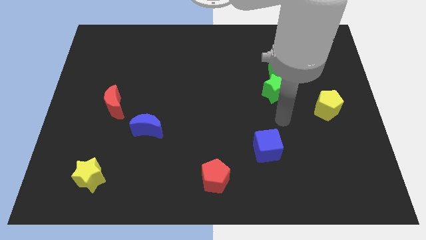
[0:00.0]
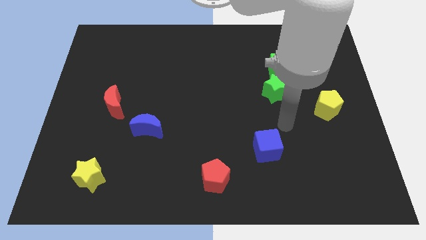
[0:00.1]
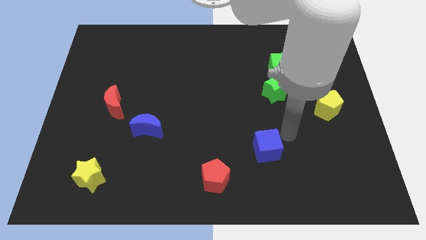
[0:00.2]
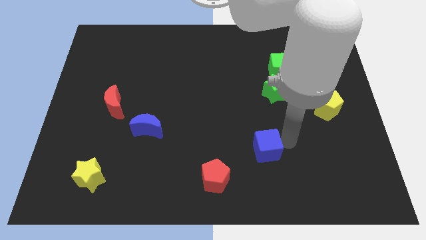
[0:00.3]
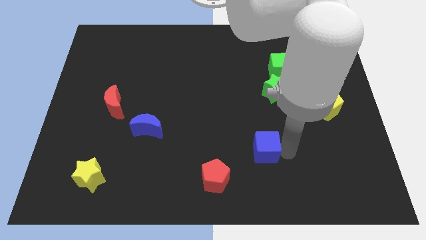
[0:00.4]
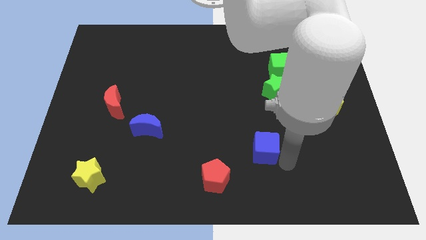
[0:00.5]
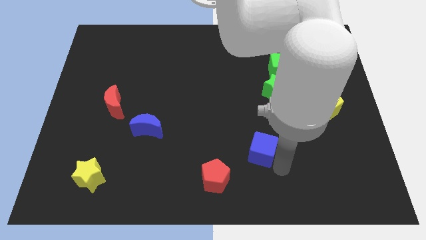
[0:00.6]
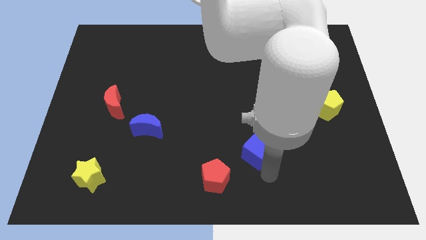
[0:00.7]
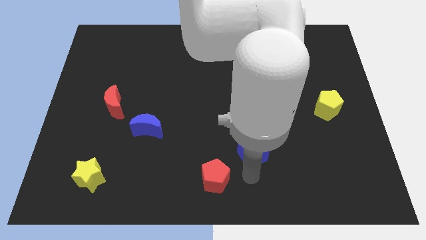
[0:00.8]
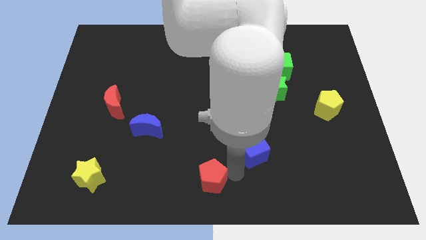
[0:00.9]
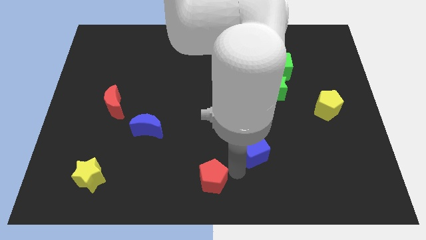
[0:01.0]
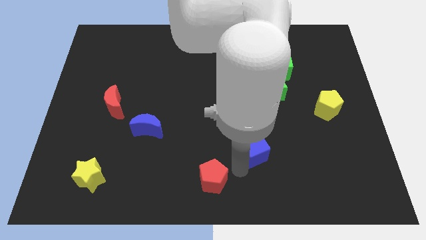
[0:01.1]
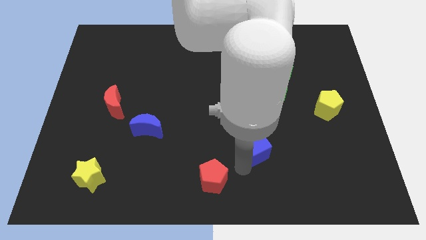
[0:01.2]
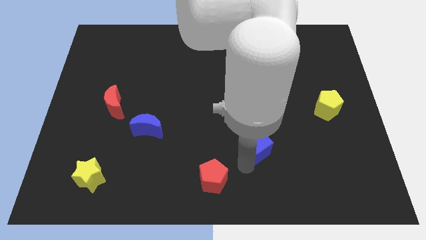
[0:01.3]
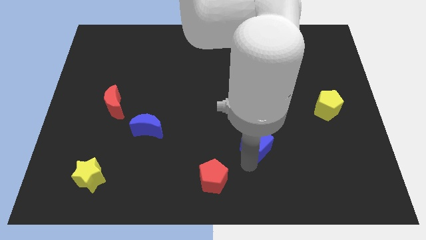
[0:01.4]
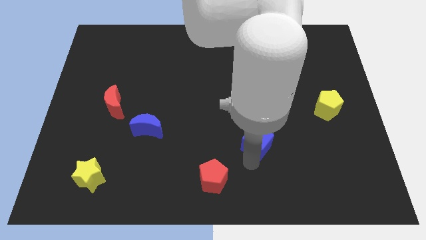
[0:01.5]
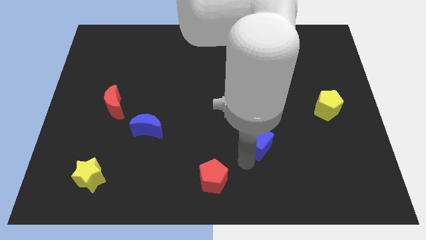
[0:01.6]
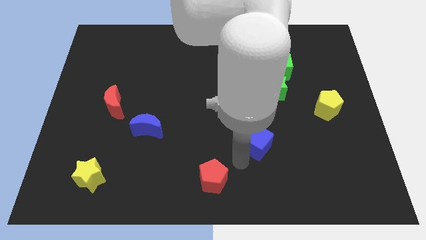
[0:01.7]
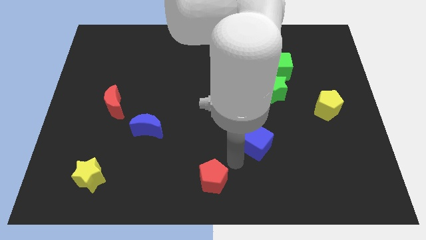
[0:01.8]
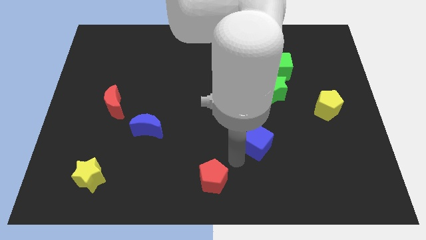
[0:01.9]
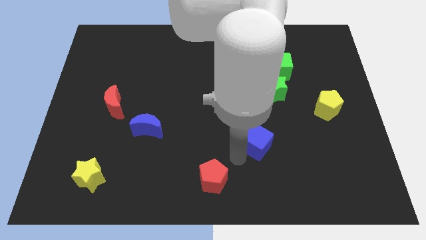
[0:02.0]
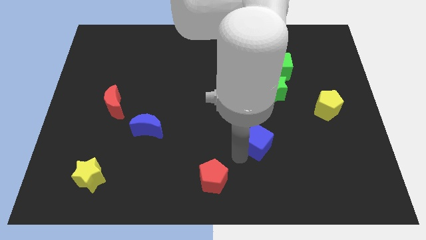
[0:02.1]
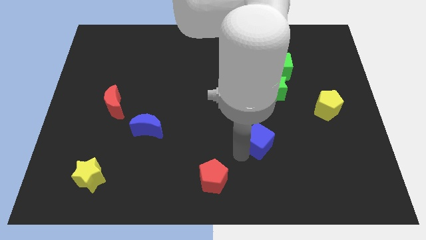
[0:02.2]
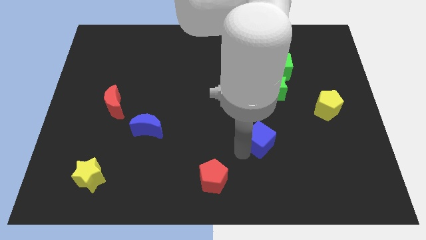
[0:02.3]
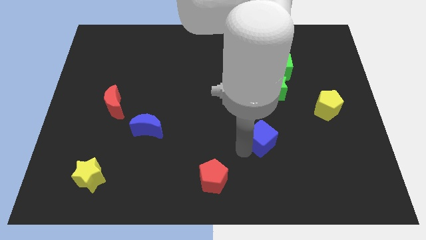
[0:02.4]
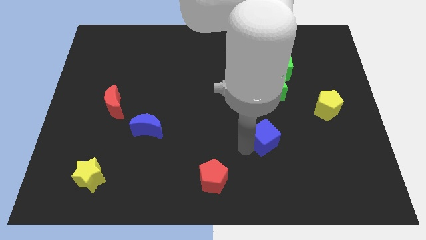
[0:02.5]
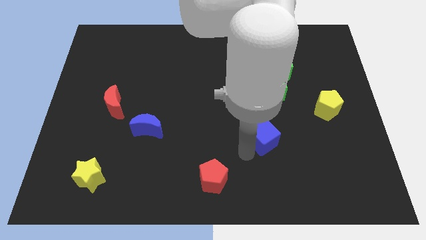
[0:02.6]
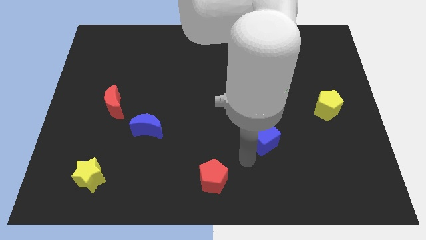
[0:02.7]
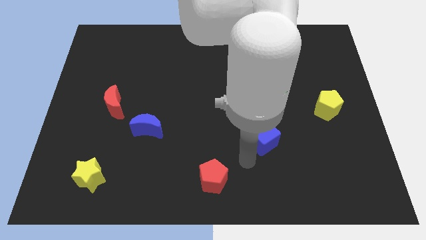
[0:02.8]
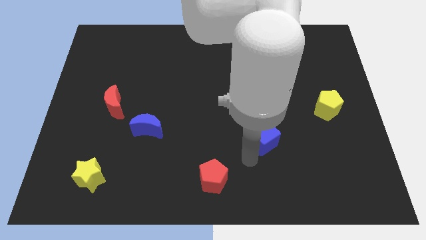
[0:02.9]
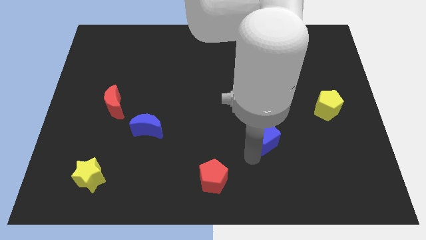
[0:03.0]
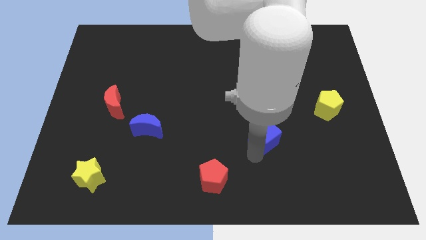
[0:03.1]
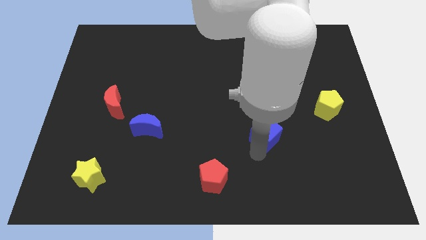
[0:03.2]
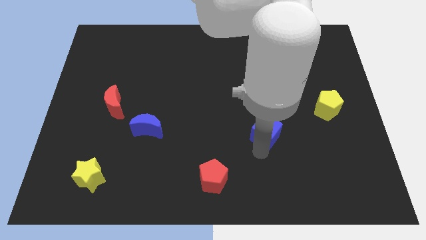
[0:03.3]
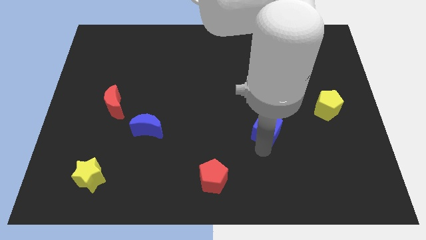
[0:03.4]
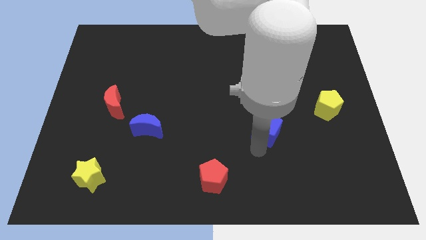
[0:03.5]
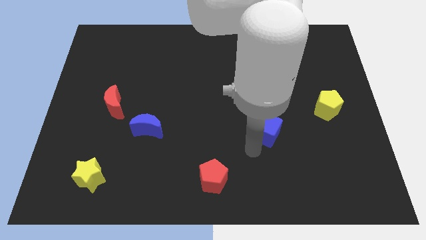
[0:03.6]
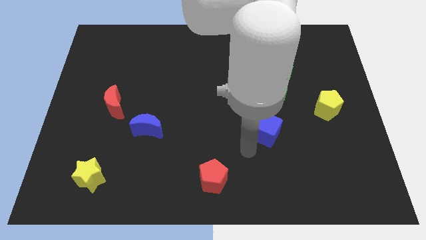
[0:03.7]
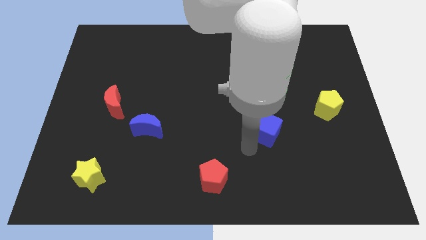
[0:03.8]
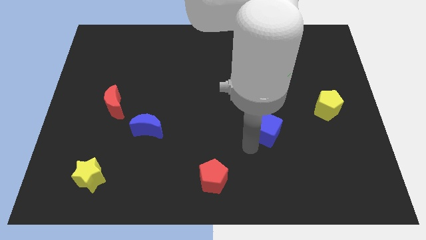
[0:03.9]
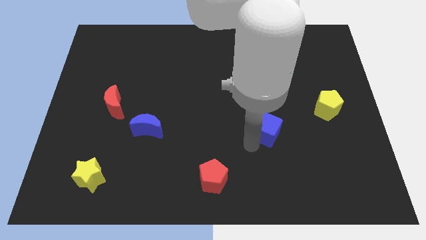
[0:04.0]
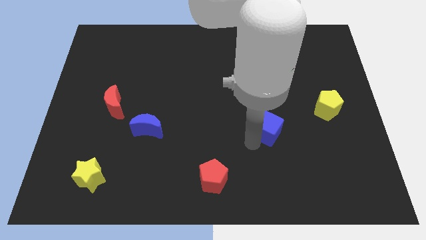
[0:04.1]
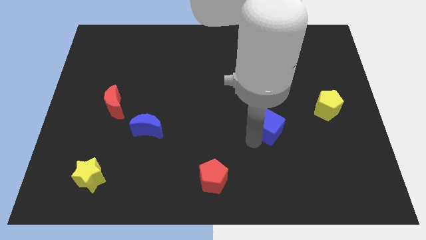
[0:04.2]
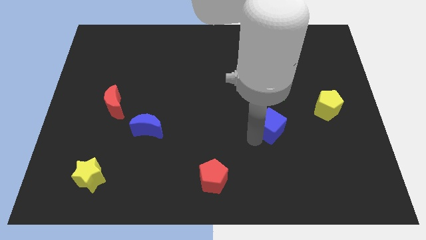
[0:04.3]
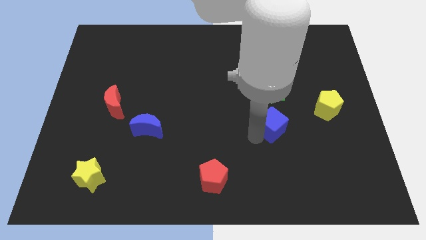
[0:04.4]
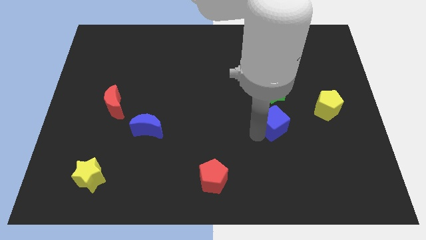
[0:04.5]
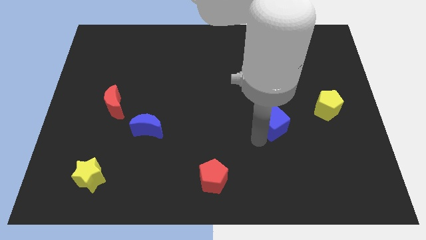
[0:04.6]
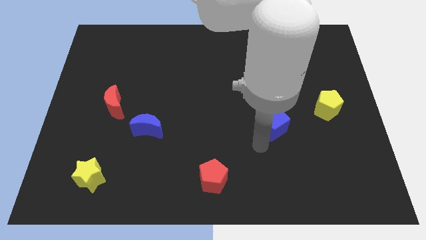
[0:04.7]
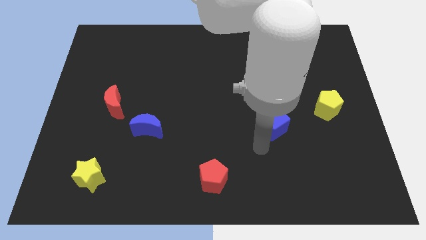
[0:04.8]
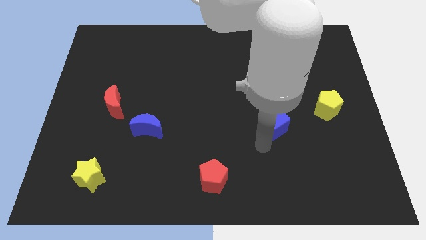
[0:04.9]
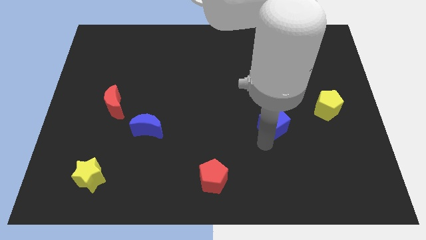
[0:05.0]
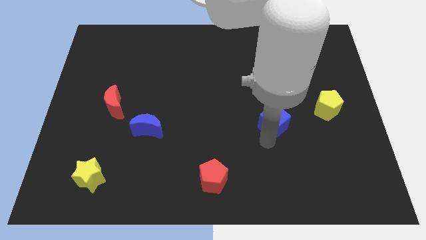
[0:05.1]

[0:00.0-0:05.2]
put the blue cube to the left of the yellow pentagon

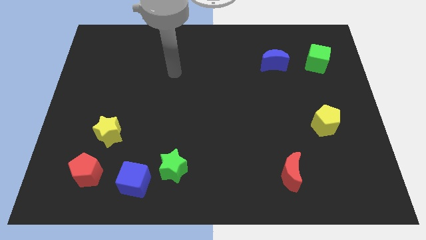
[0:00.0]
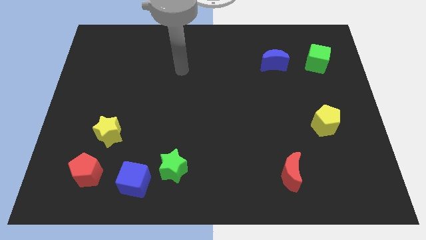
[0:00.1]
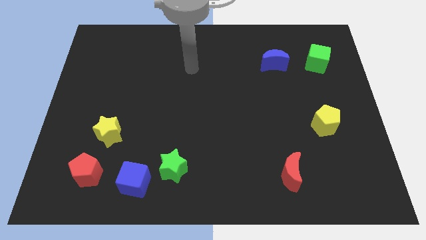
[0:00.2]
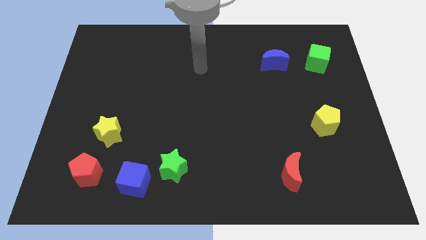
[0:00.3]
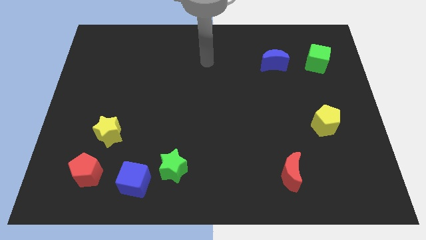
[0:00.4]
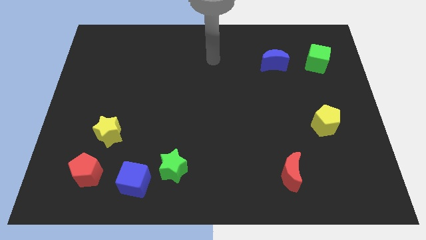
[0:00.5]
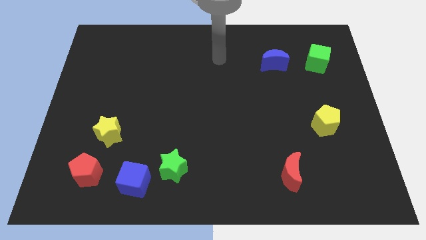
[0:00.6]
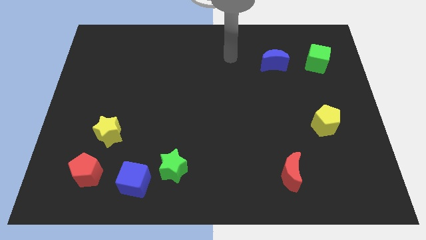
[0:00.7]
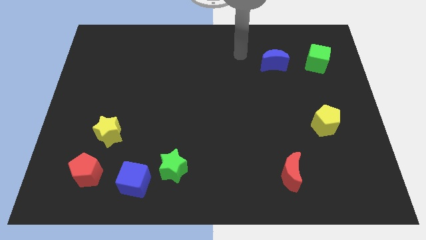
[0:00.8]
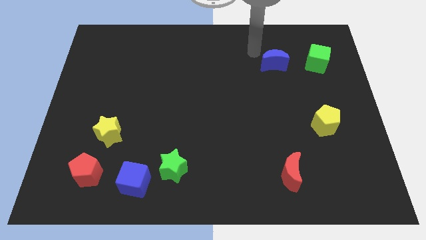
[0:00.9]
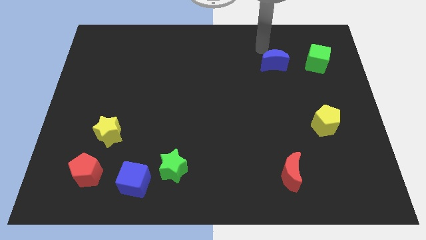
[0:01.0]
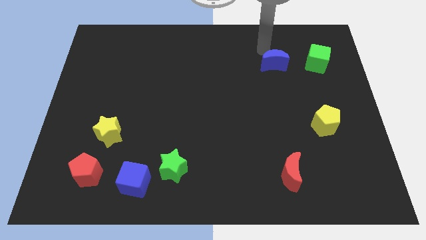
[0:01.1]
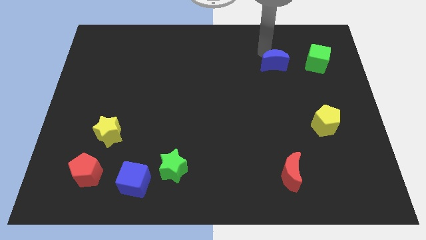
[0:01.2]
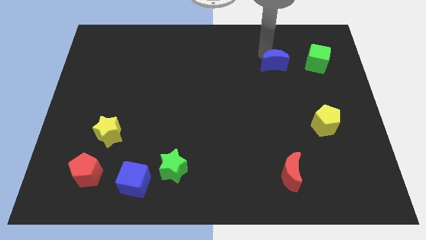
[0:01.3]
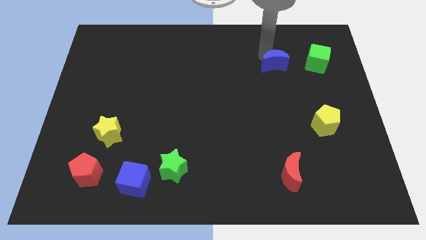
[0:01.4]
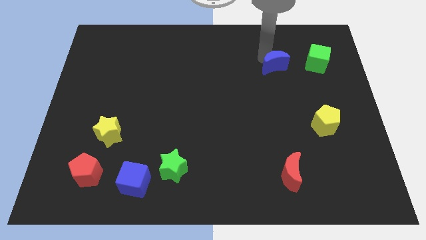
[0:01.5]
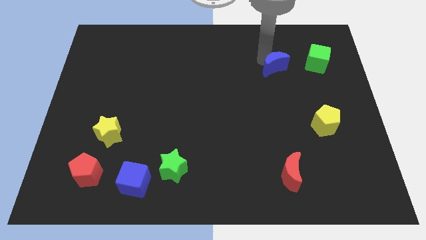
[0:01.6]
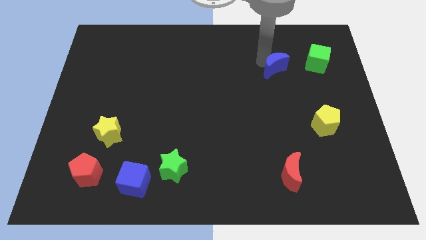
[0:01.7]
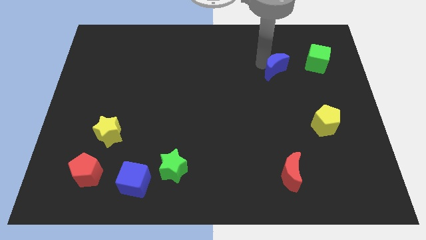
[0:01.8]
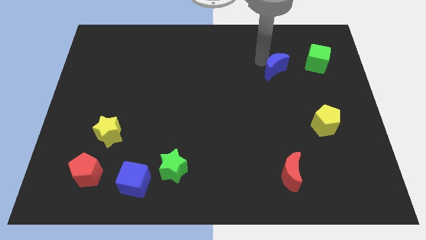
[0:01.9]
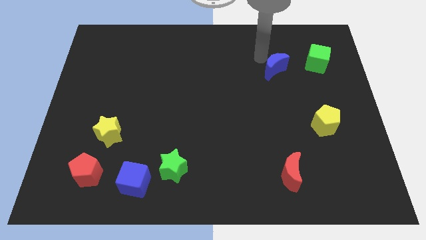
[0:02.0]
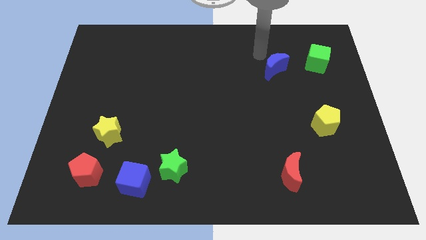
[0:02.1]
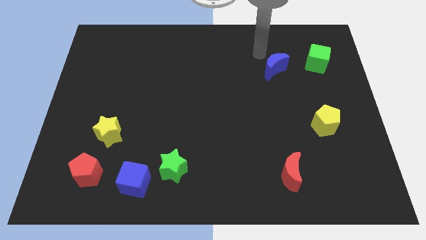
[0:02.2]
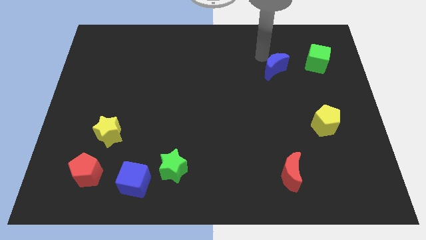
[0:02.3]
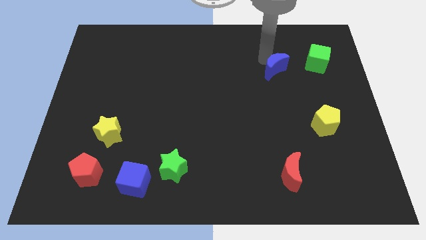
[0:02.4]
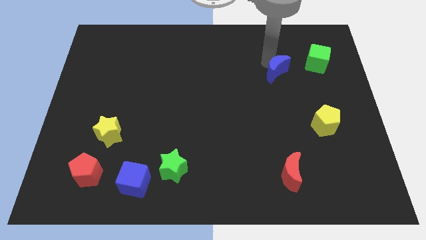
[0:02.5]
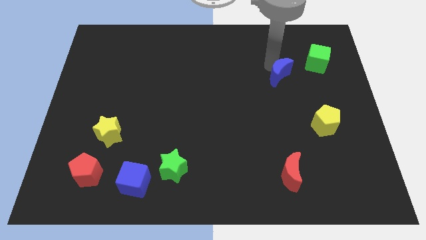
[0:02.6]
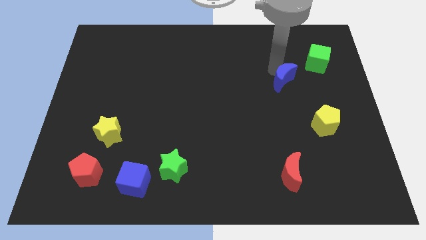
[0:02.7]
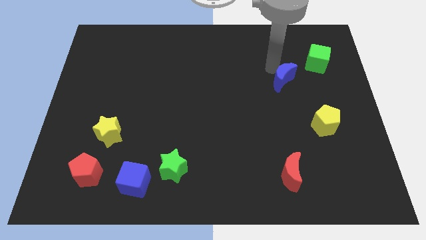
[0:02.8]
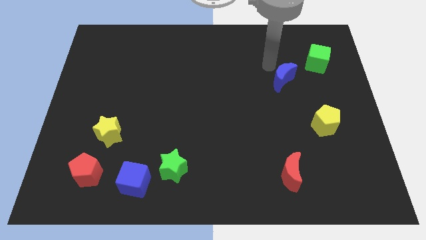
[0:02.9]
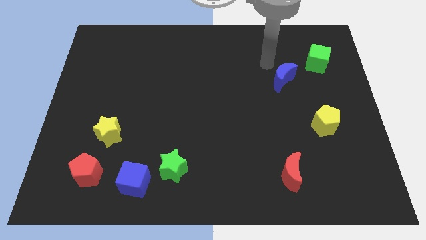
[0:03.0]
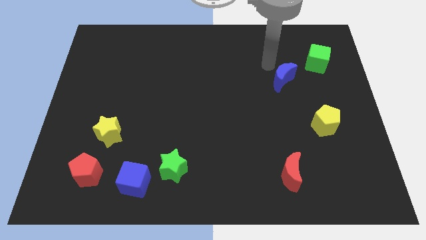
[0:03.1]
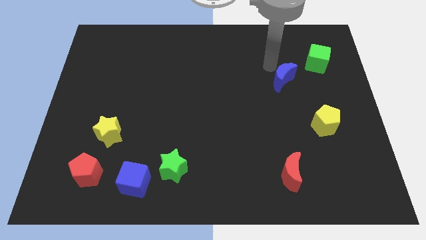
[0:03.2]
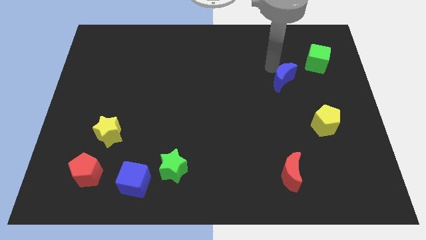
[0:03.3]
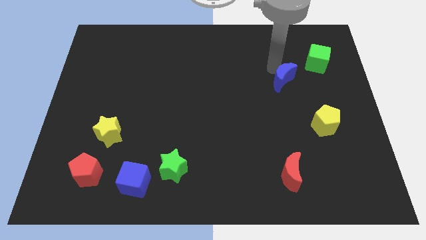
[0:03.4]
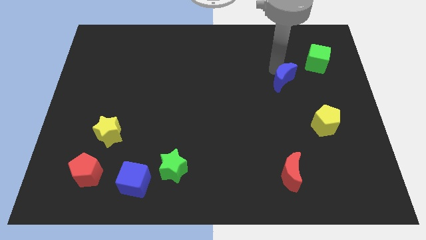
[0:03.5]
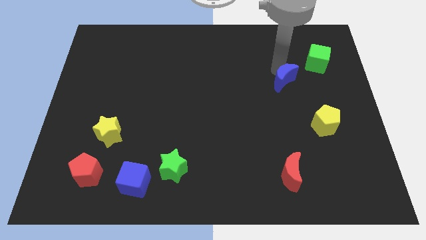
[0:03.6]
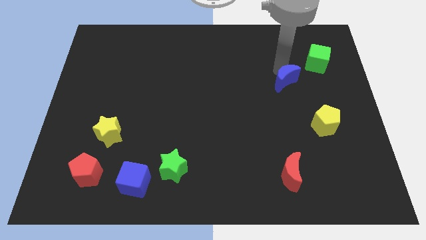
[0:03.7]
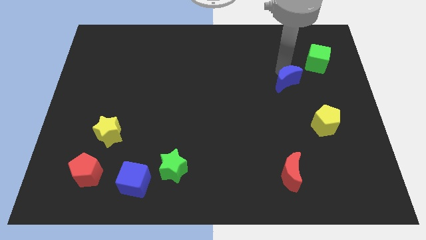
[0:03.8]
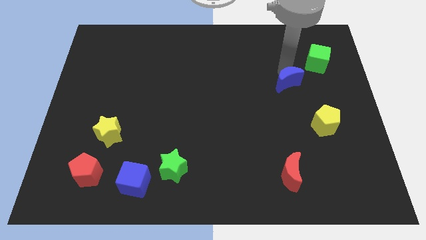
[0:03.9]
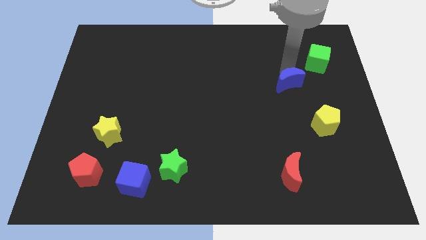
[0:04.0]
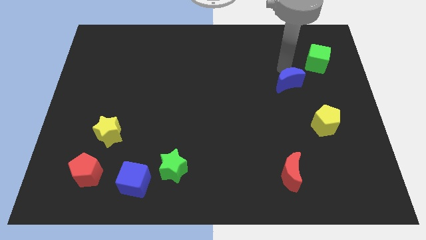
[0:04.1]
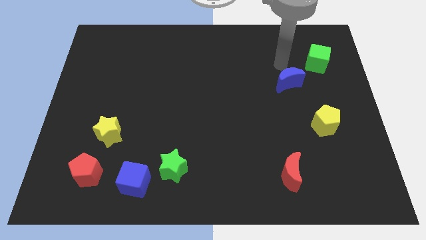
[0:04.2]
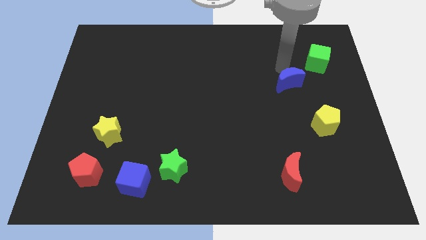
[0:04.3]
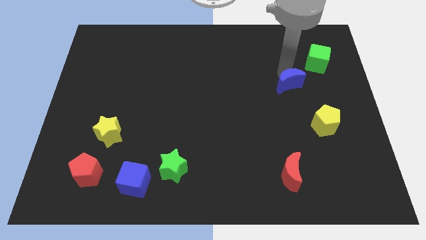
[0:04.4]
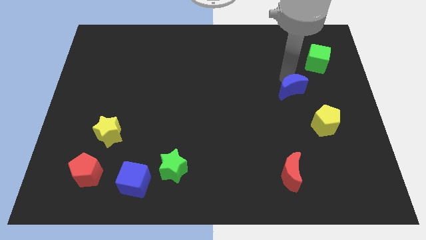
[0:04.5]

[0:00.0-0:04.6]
put the blue moon diagonally up and to the left of the yellow pentagon
